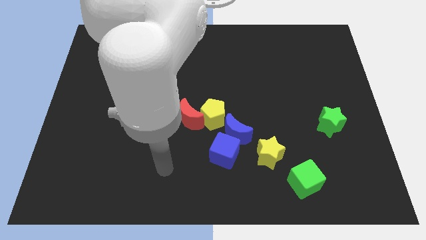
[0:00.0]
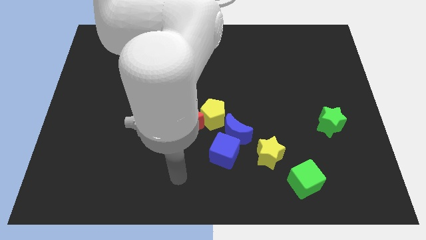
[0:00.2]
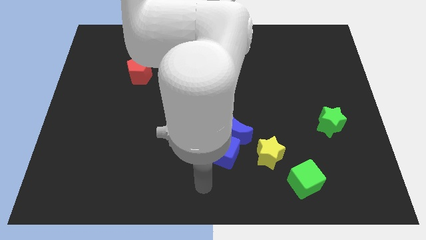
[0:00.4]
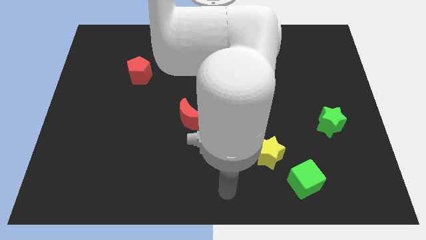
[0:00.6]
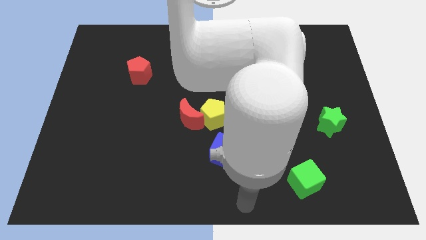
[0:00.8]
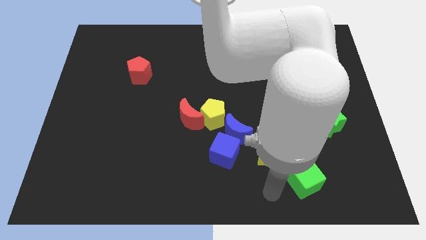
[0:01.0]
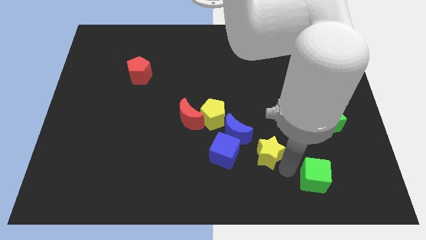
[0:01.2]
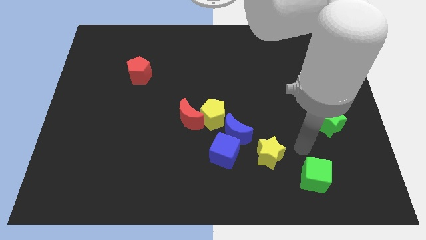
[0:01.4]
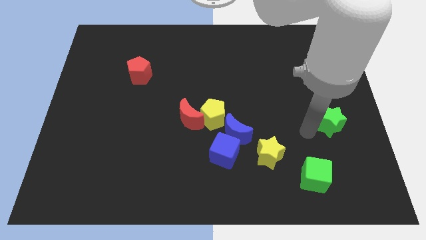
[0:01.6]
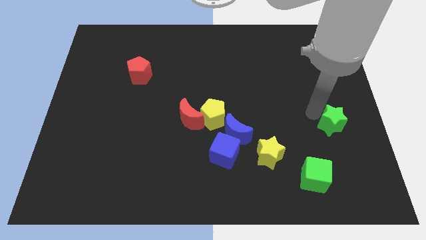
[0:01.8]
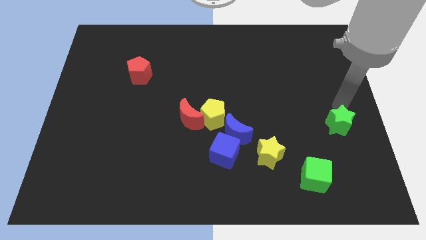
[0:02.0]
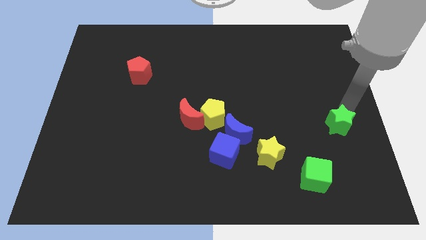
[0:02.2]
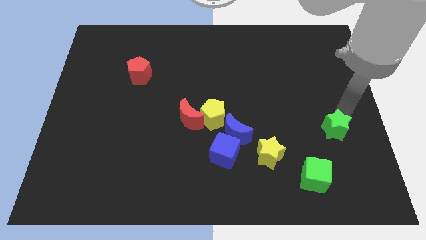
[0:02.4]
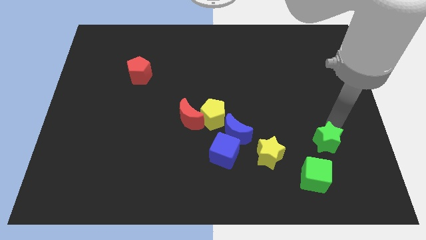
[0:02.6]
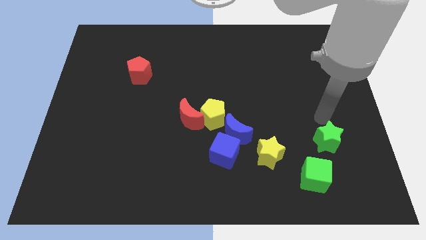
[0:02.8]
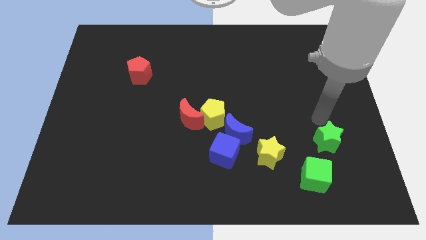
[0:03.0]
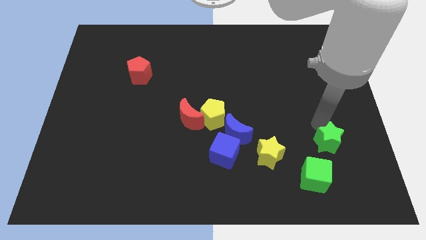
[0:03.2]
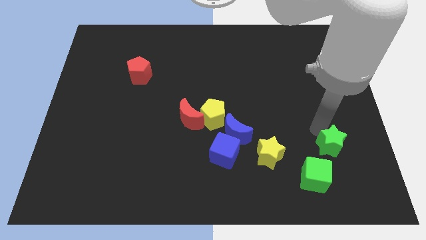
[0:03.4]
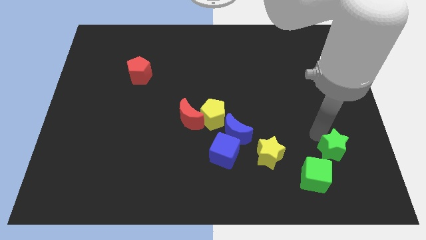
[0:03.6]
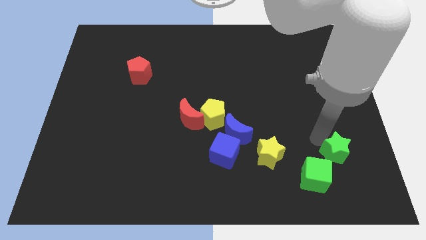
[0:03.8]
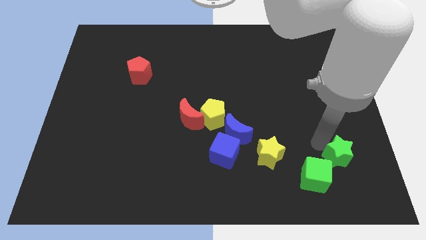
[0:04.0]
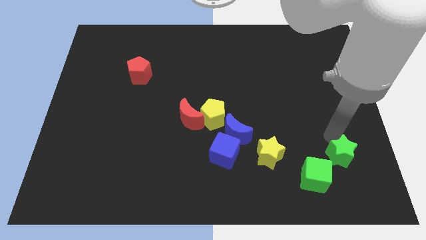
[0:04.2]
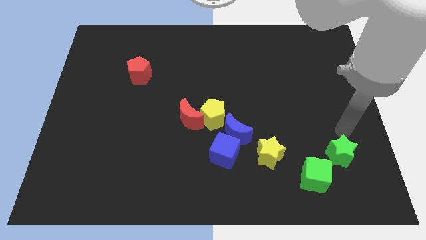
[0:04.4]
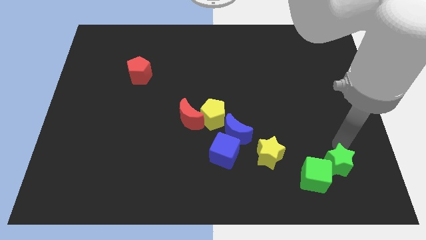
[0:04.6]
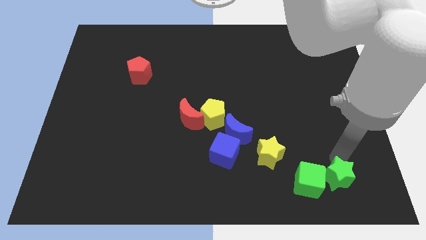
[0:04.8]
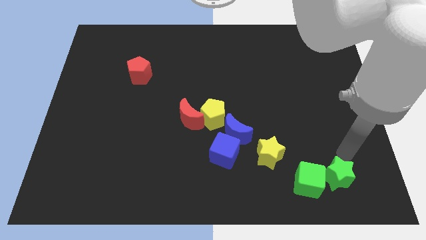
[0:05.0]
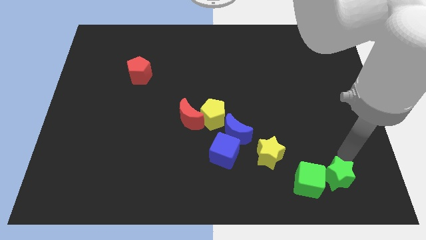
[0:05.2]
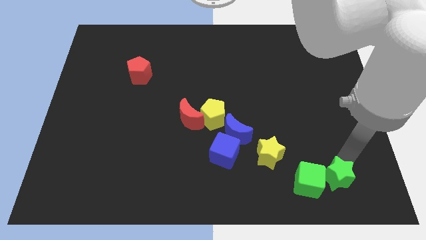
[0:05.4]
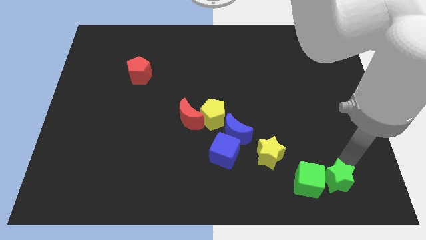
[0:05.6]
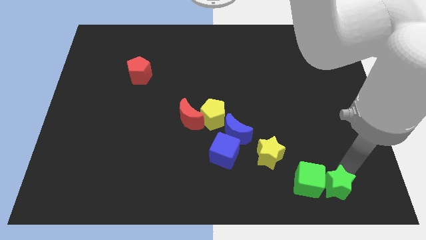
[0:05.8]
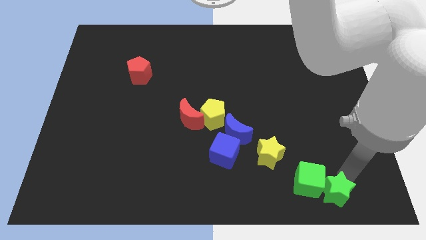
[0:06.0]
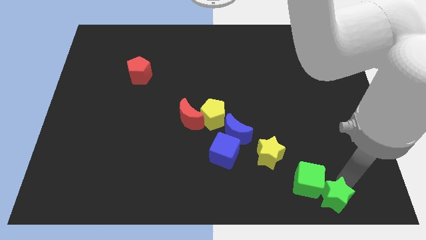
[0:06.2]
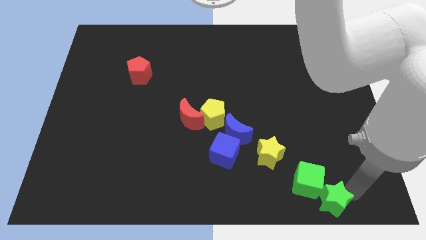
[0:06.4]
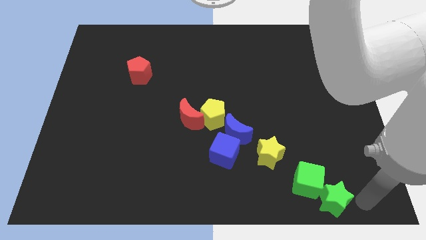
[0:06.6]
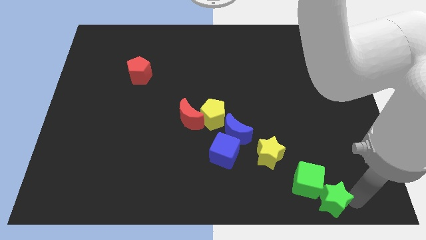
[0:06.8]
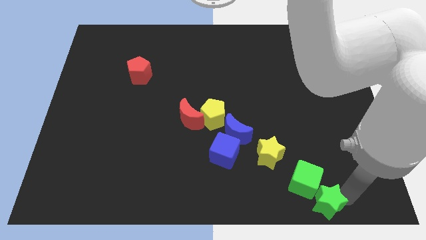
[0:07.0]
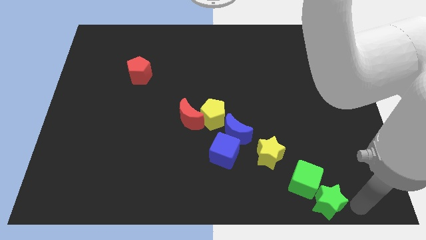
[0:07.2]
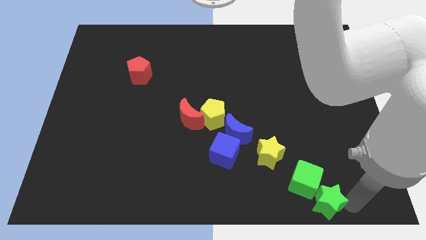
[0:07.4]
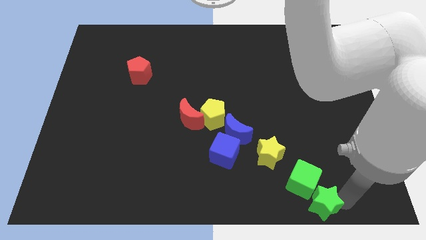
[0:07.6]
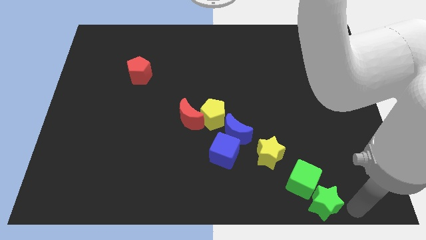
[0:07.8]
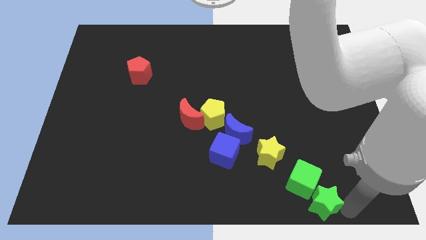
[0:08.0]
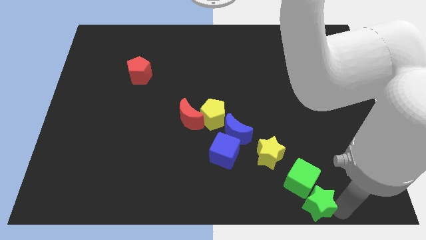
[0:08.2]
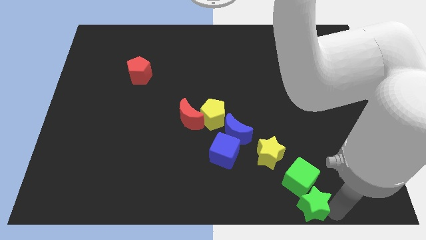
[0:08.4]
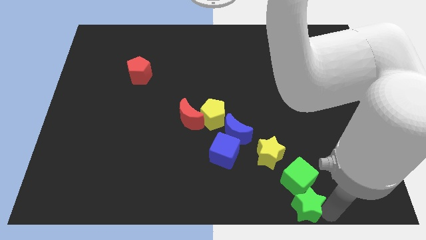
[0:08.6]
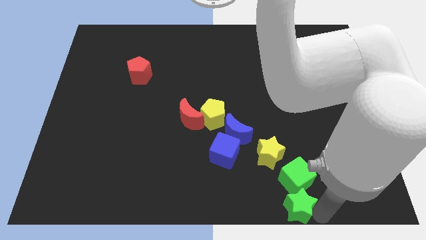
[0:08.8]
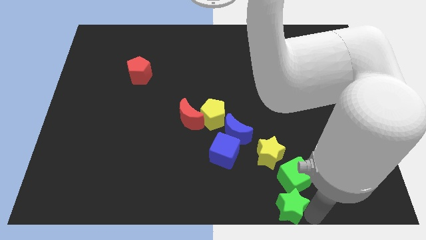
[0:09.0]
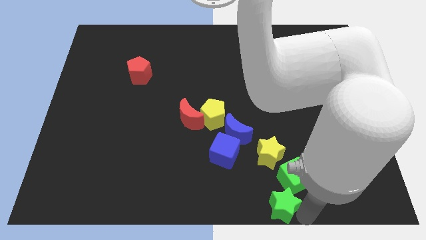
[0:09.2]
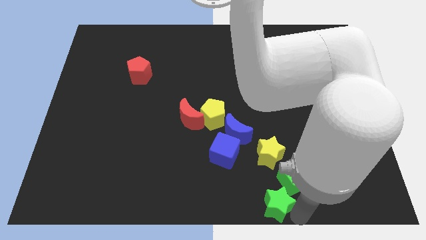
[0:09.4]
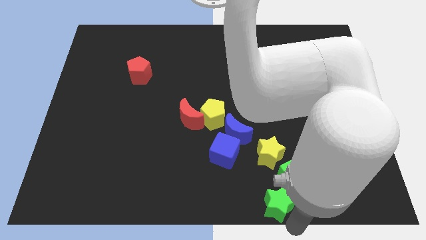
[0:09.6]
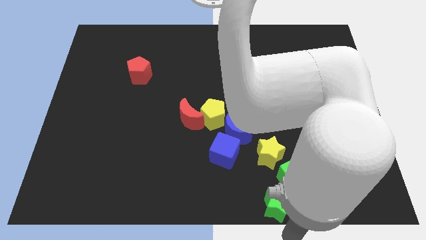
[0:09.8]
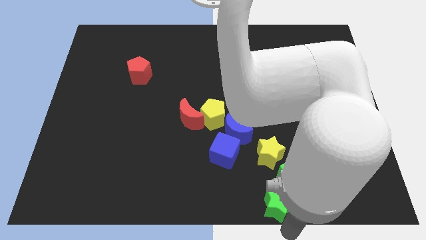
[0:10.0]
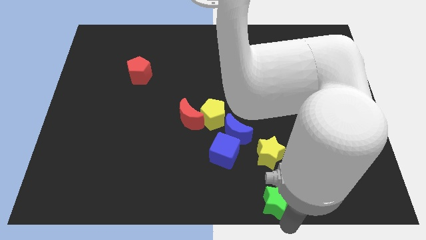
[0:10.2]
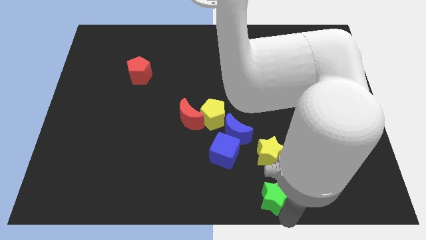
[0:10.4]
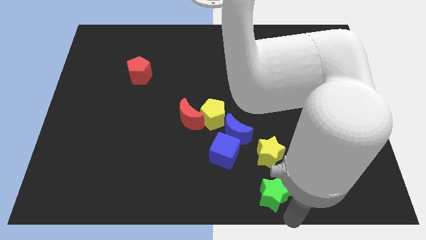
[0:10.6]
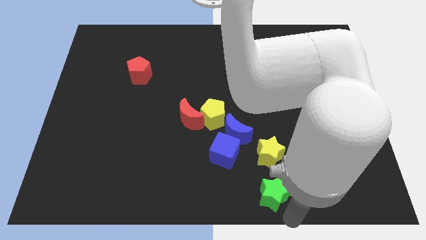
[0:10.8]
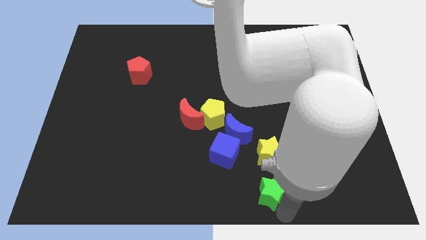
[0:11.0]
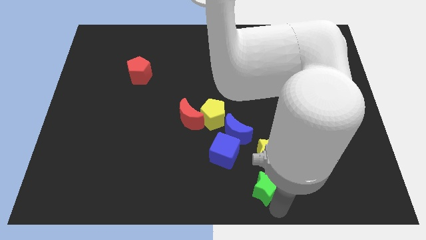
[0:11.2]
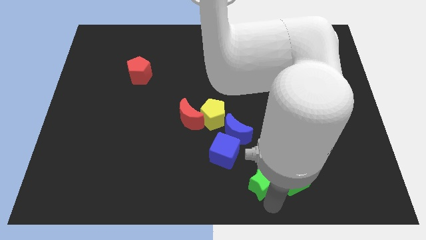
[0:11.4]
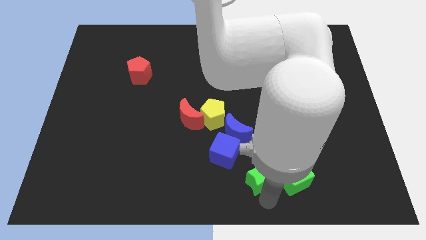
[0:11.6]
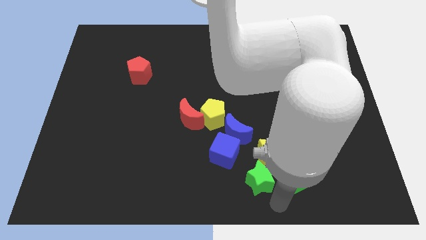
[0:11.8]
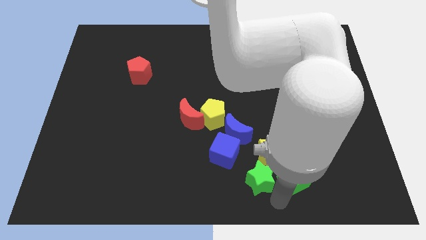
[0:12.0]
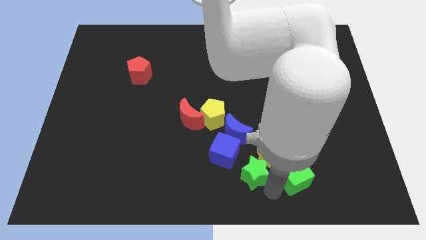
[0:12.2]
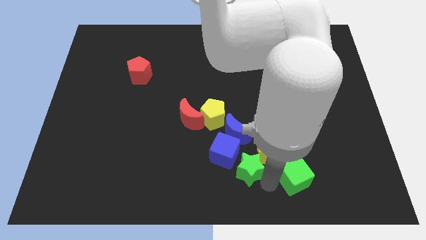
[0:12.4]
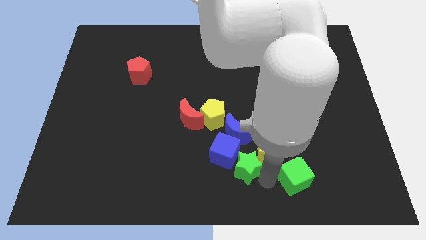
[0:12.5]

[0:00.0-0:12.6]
move the green star to the blue cube

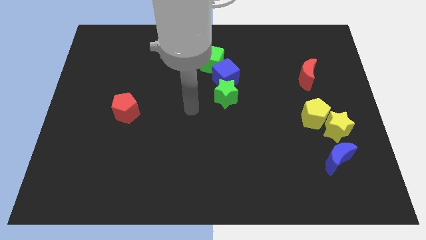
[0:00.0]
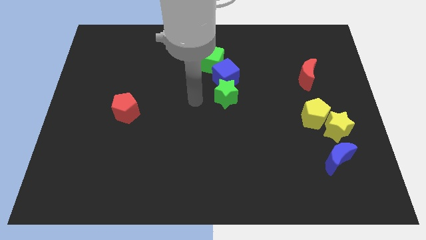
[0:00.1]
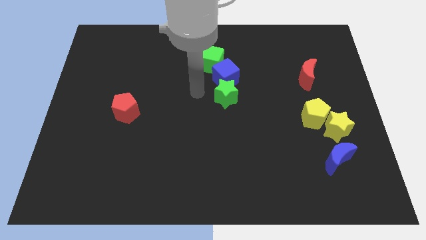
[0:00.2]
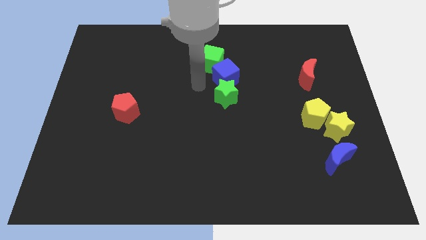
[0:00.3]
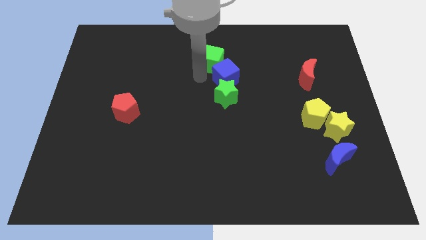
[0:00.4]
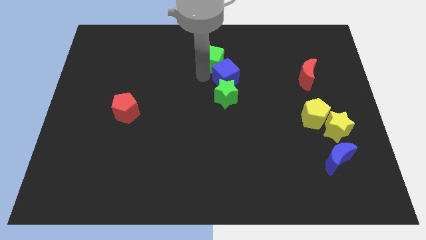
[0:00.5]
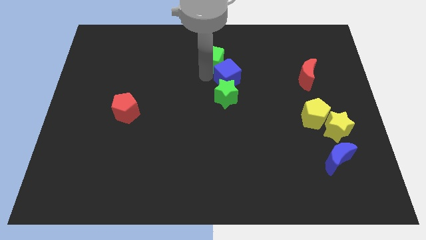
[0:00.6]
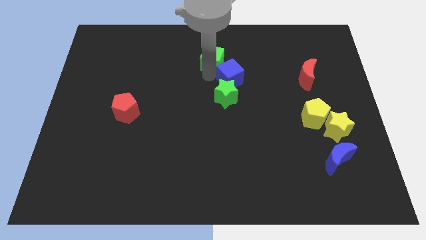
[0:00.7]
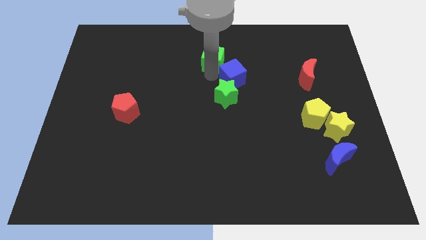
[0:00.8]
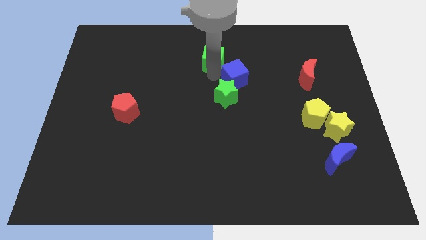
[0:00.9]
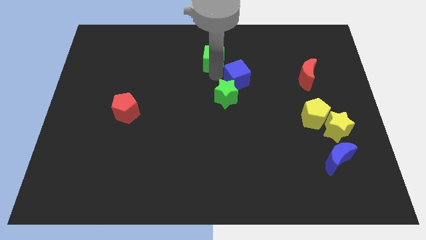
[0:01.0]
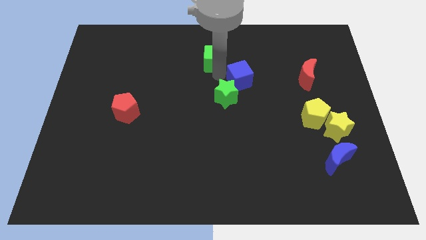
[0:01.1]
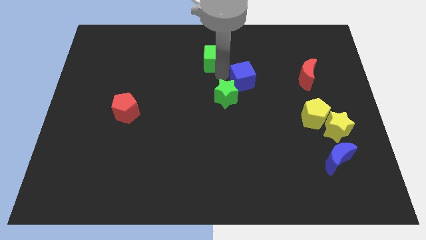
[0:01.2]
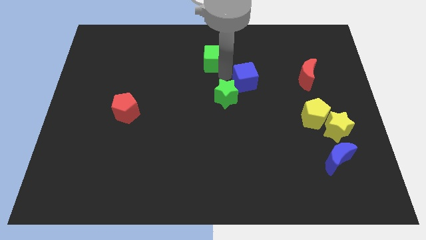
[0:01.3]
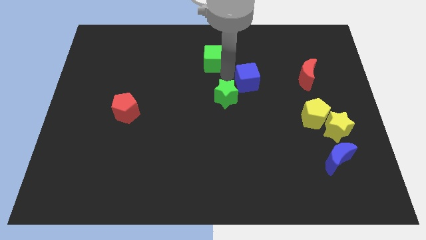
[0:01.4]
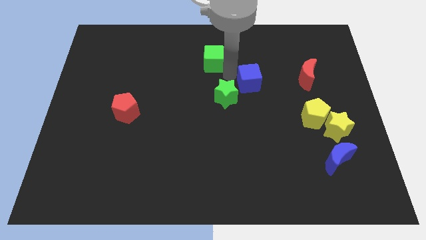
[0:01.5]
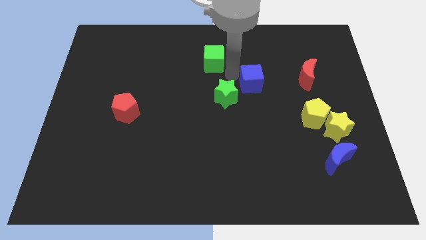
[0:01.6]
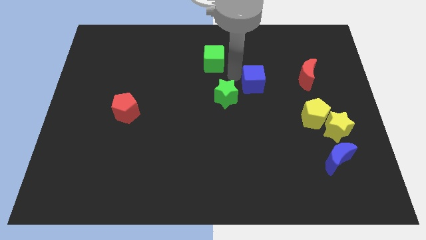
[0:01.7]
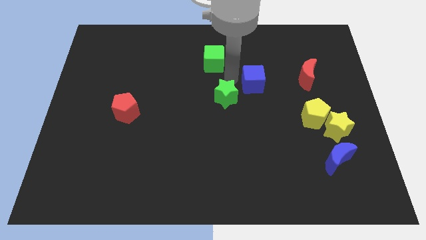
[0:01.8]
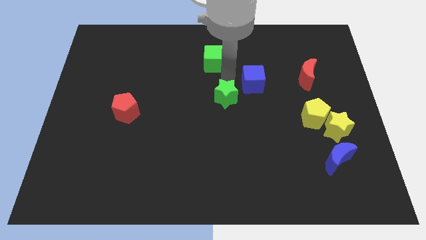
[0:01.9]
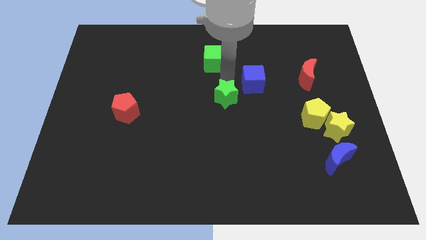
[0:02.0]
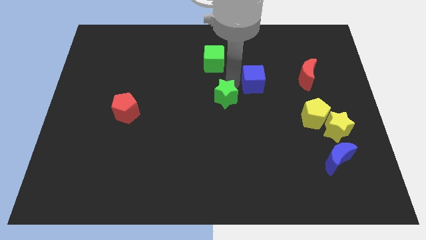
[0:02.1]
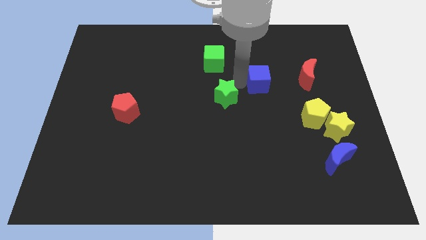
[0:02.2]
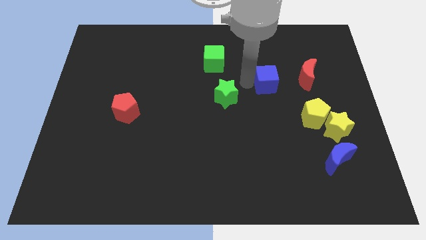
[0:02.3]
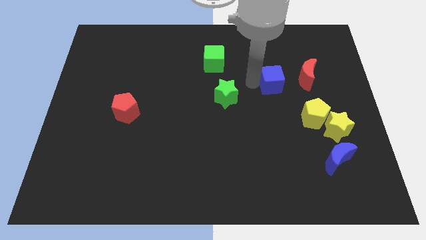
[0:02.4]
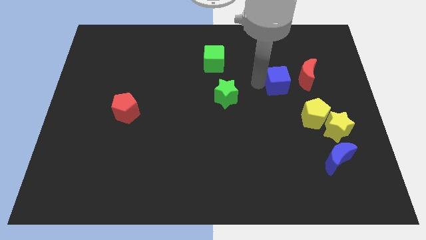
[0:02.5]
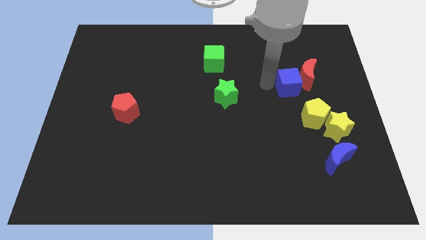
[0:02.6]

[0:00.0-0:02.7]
push the blue cube to the red moon
